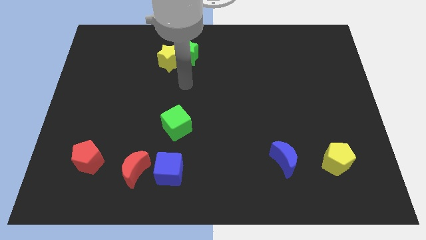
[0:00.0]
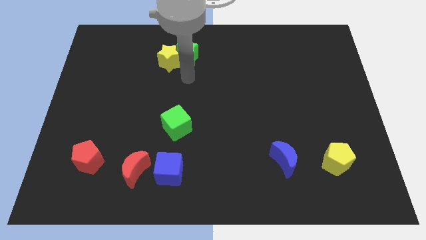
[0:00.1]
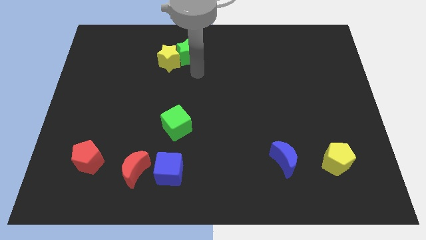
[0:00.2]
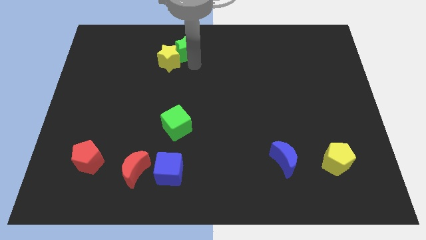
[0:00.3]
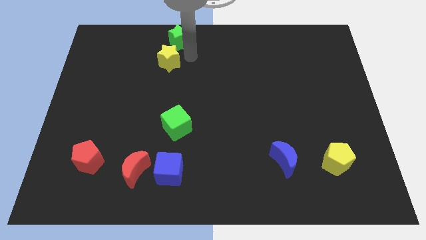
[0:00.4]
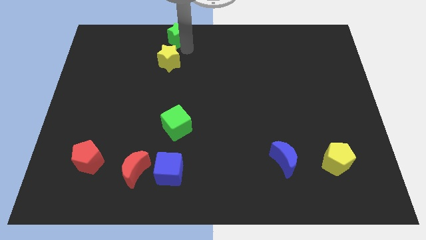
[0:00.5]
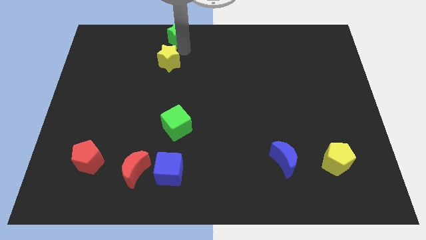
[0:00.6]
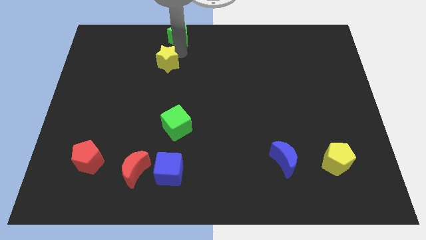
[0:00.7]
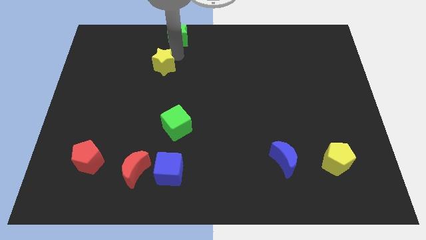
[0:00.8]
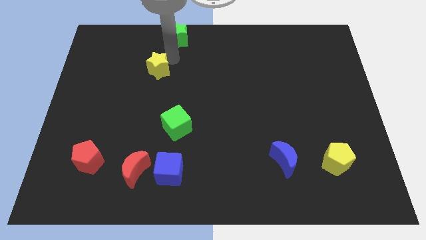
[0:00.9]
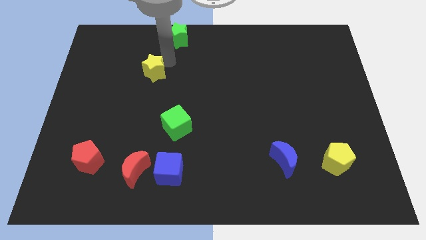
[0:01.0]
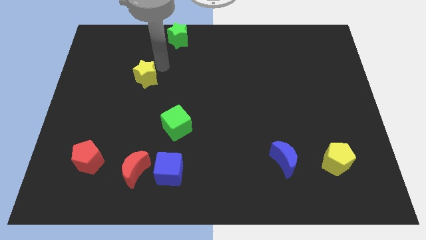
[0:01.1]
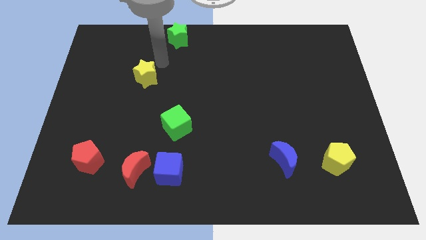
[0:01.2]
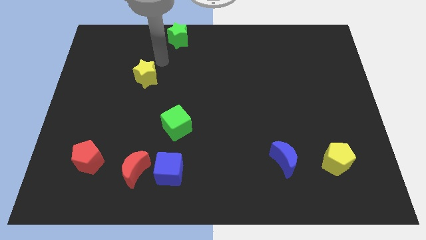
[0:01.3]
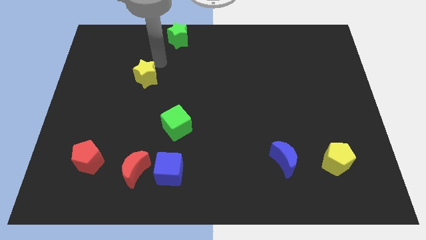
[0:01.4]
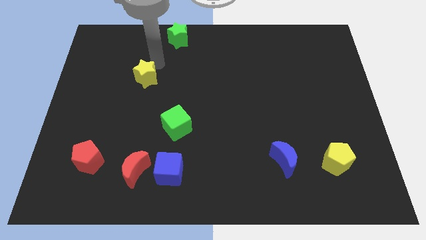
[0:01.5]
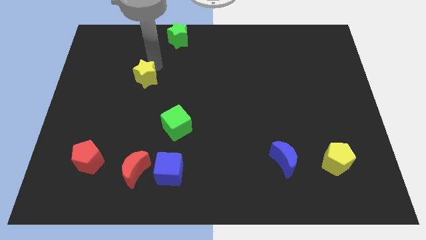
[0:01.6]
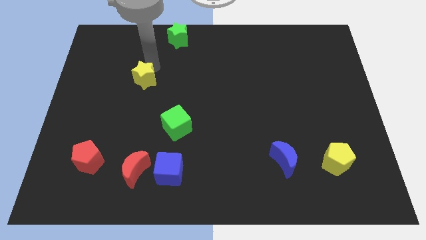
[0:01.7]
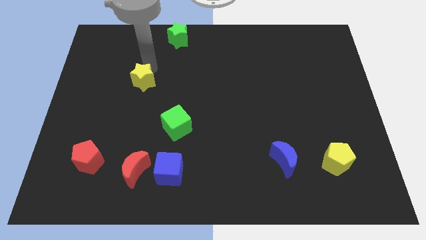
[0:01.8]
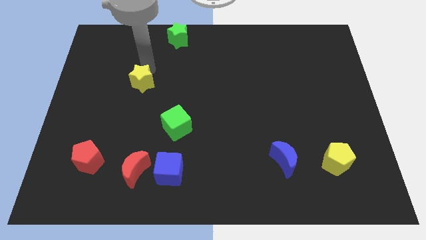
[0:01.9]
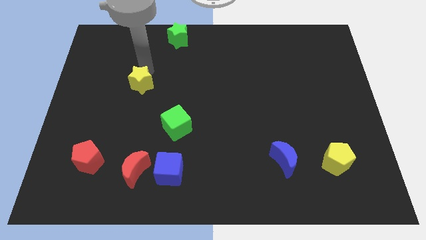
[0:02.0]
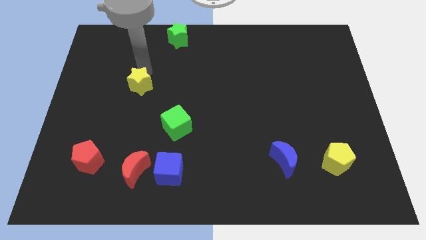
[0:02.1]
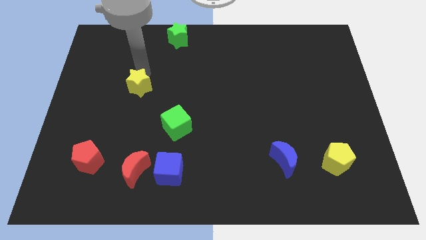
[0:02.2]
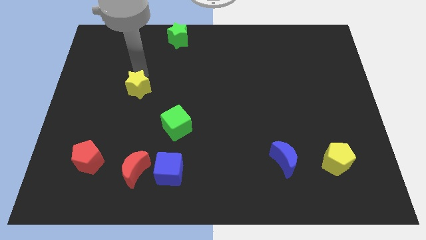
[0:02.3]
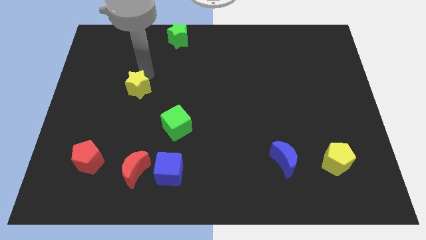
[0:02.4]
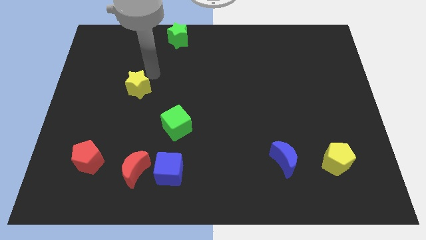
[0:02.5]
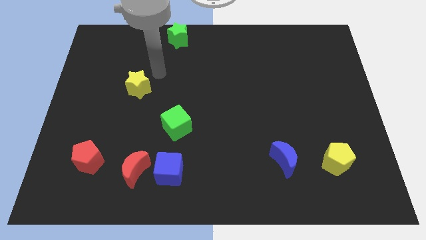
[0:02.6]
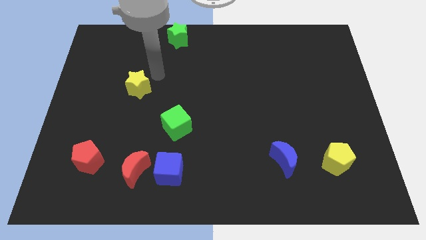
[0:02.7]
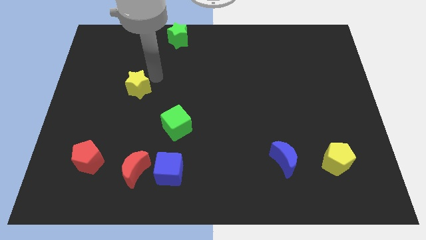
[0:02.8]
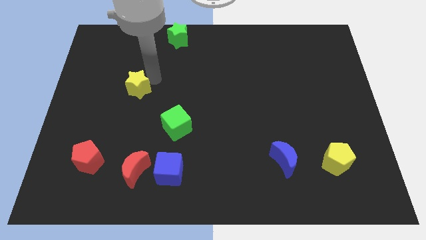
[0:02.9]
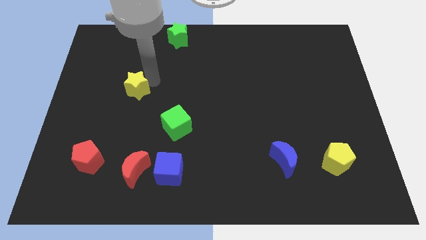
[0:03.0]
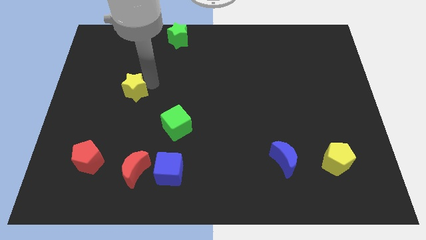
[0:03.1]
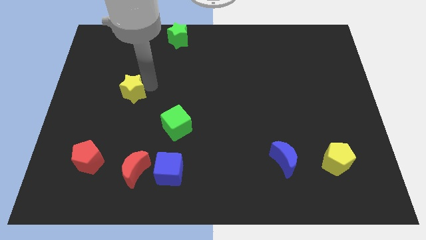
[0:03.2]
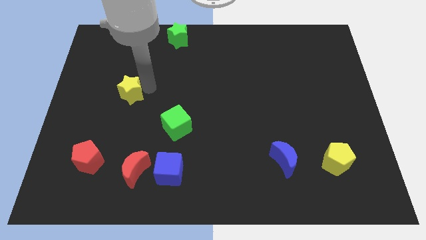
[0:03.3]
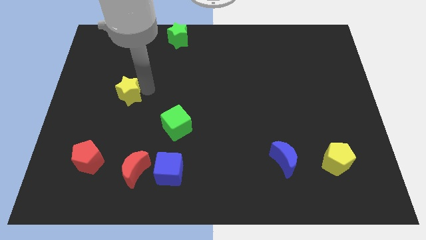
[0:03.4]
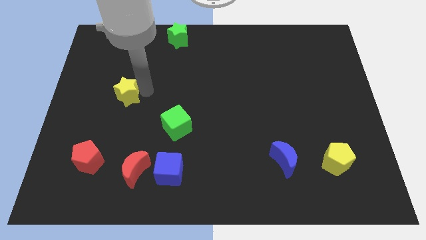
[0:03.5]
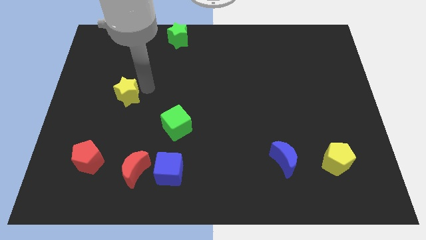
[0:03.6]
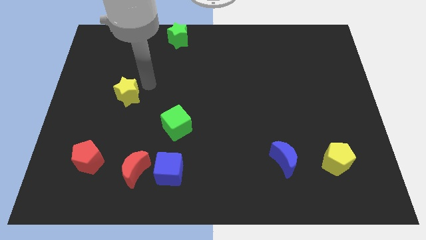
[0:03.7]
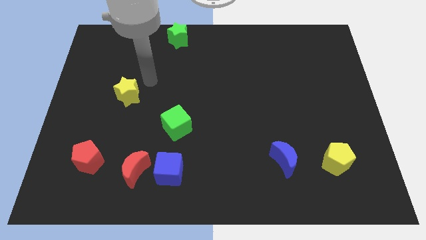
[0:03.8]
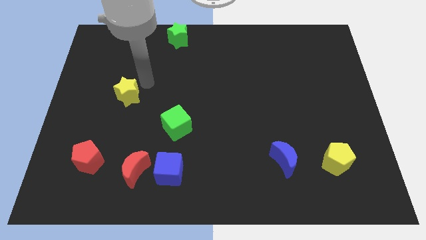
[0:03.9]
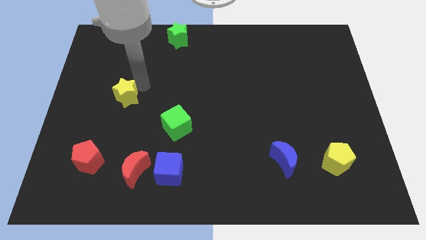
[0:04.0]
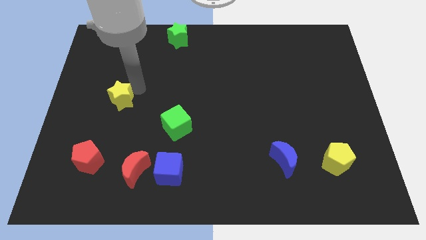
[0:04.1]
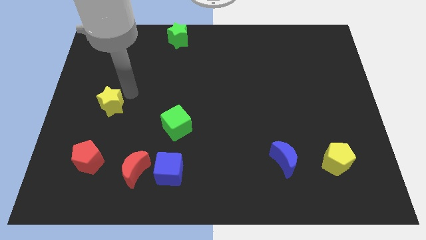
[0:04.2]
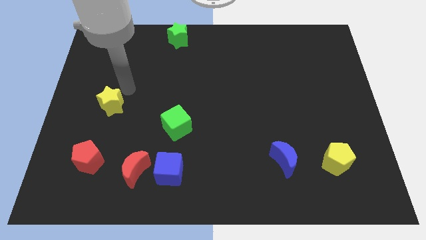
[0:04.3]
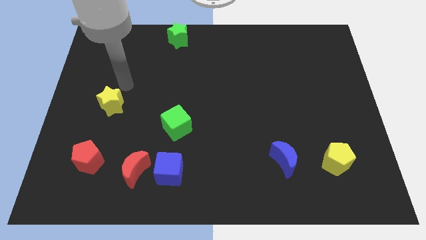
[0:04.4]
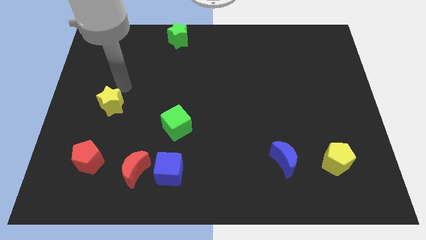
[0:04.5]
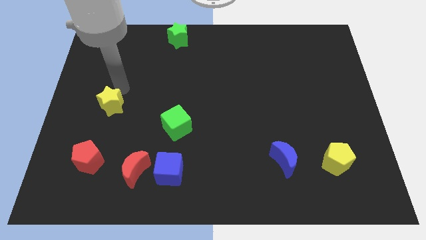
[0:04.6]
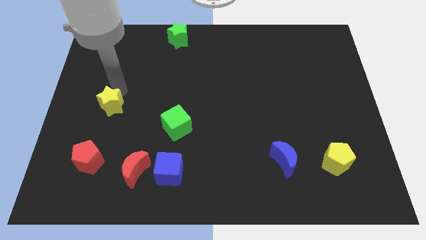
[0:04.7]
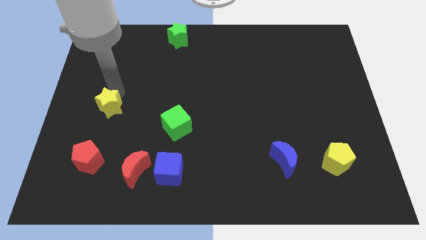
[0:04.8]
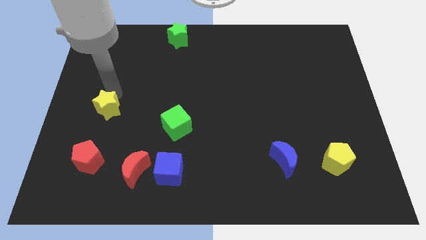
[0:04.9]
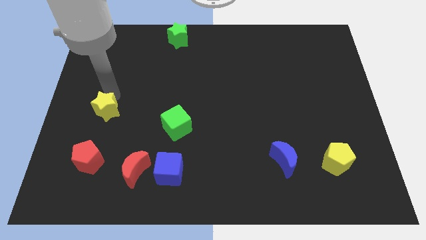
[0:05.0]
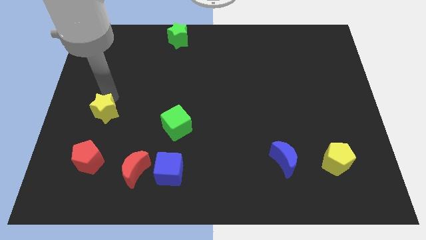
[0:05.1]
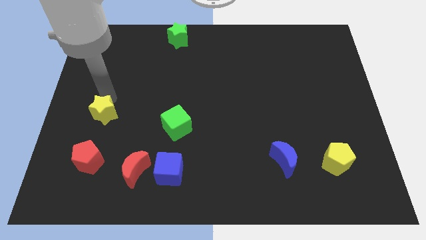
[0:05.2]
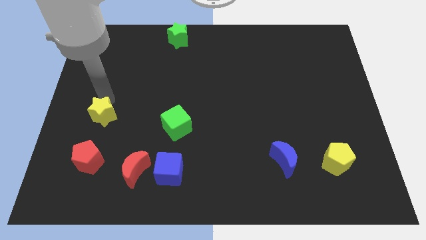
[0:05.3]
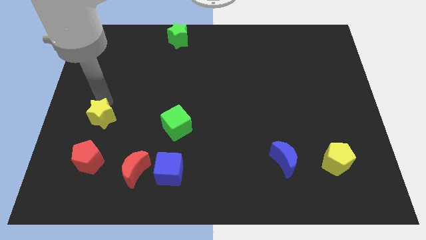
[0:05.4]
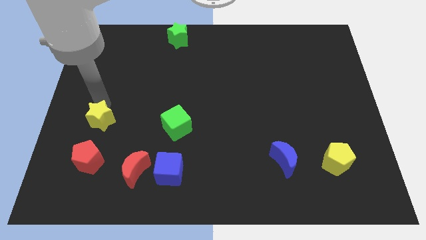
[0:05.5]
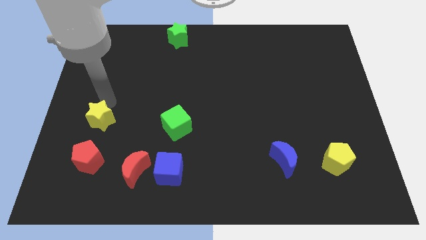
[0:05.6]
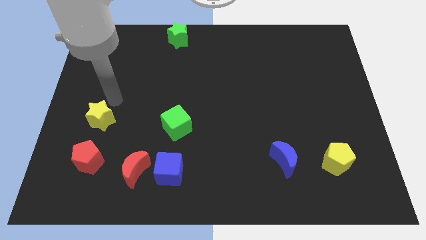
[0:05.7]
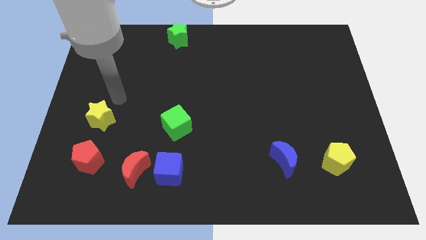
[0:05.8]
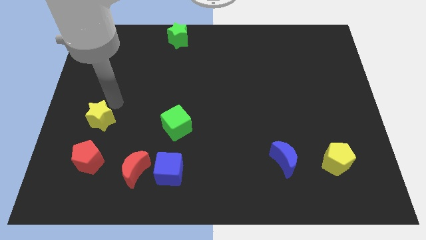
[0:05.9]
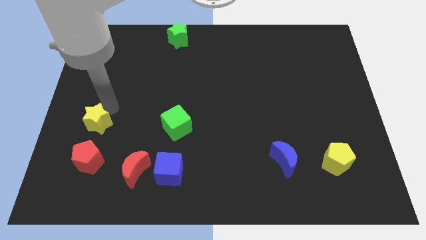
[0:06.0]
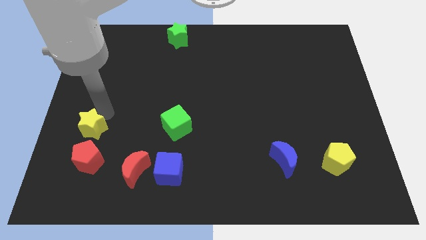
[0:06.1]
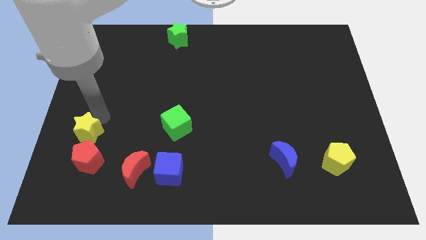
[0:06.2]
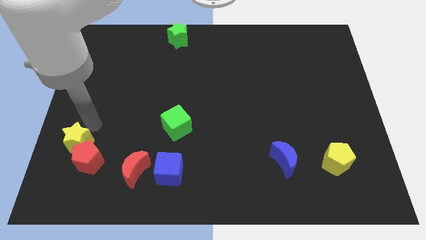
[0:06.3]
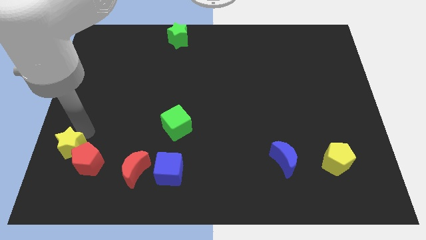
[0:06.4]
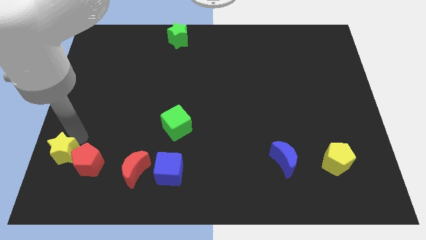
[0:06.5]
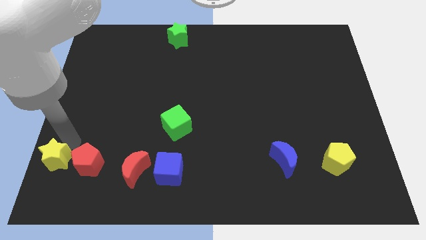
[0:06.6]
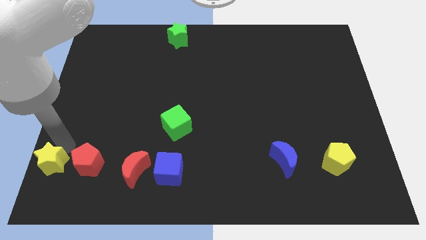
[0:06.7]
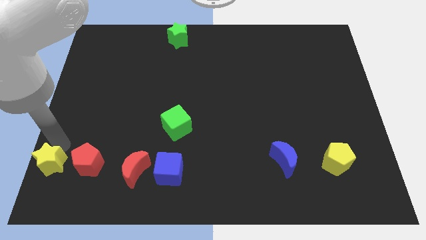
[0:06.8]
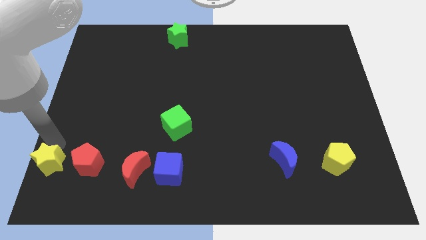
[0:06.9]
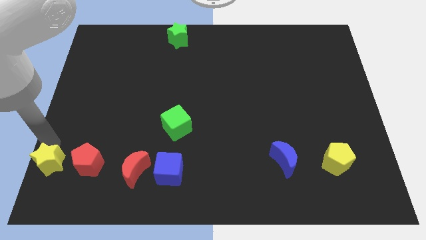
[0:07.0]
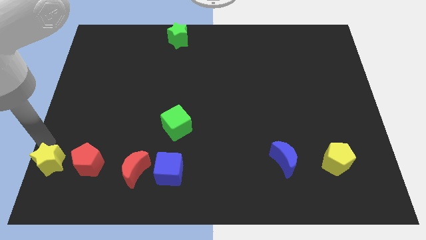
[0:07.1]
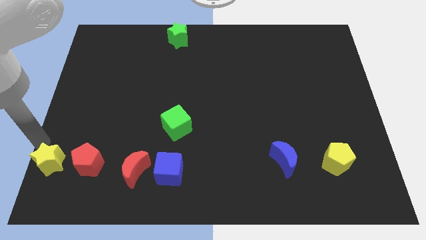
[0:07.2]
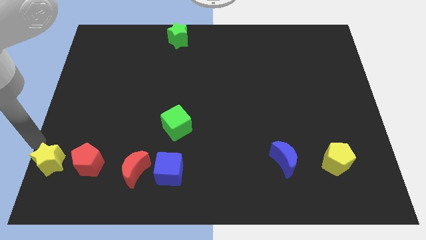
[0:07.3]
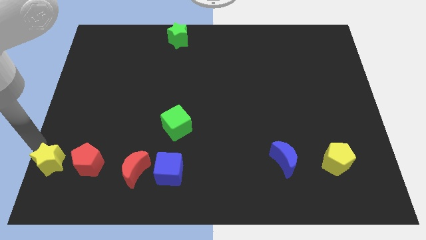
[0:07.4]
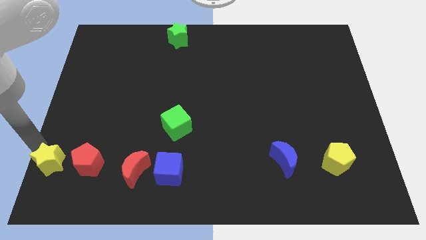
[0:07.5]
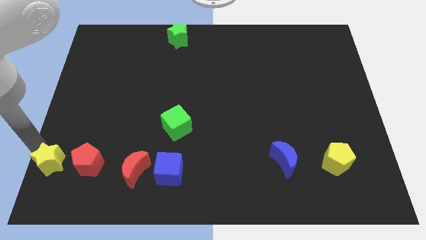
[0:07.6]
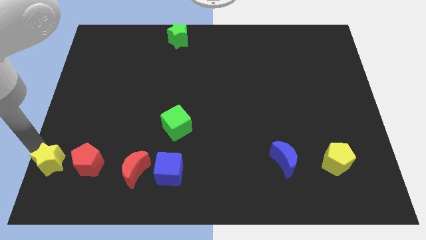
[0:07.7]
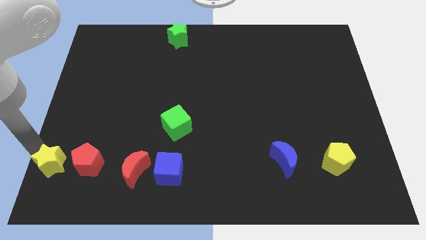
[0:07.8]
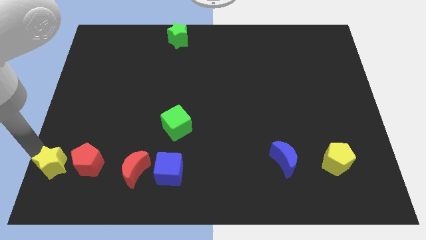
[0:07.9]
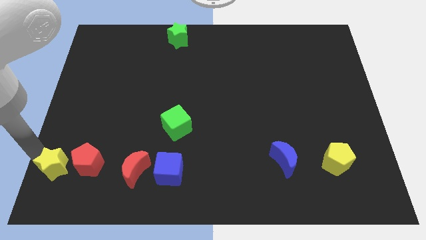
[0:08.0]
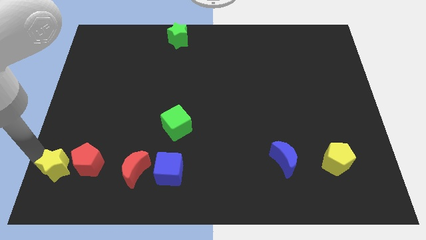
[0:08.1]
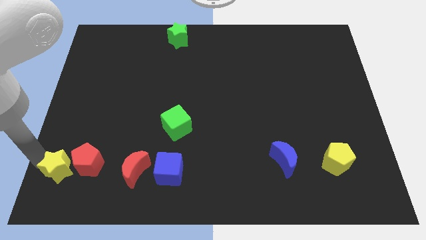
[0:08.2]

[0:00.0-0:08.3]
slide the yellow star to the left of the red moon
